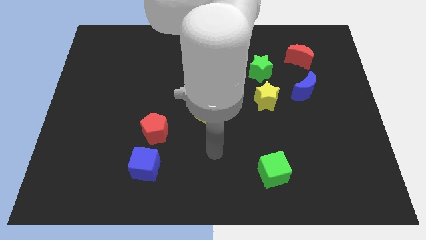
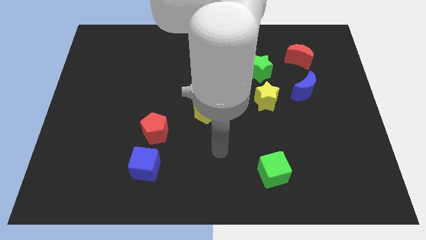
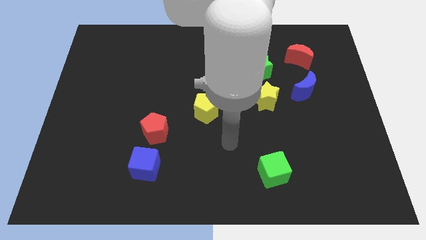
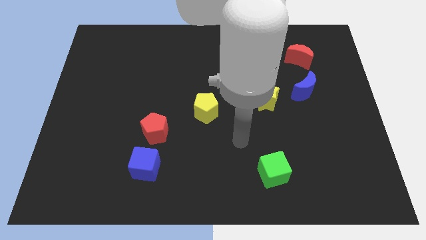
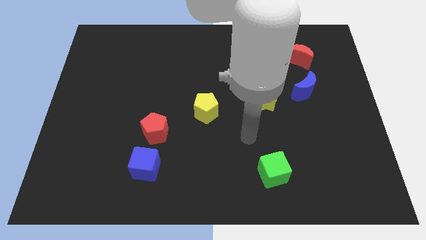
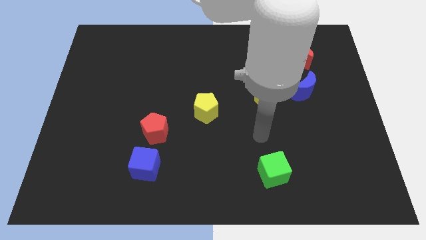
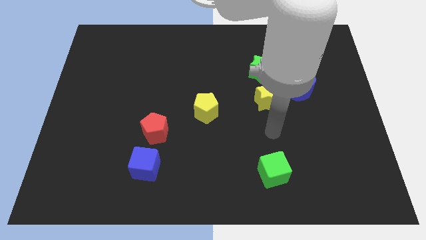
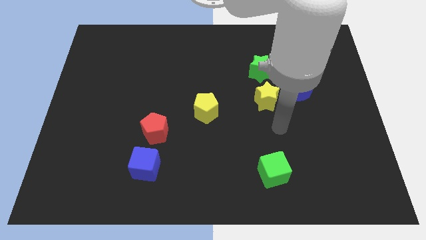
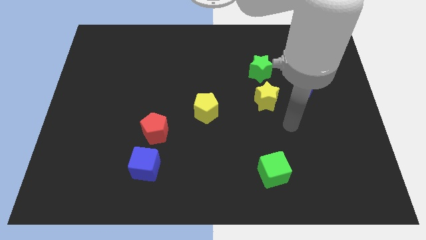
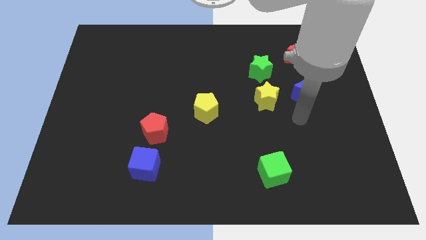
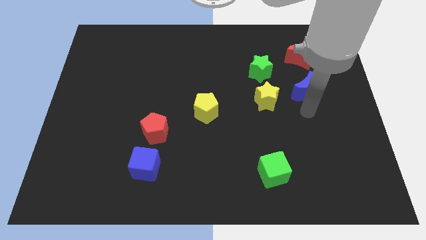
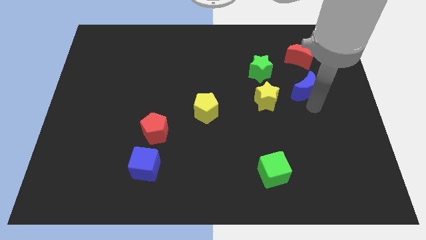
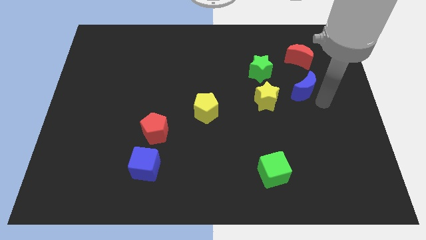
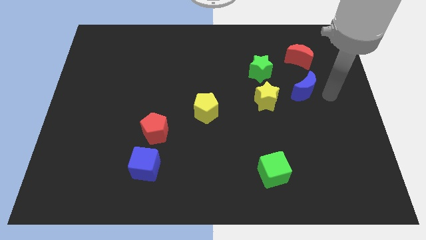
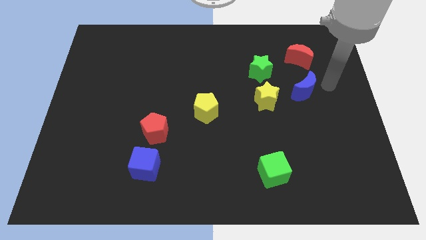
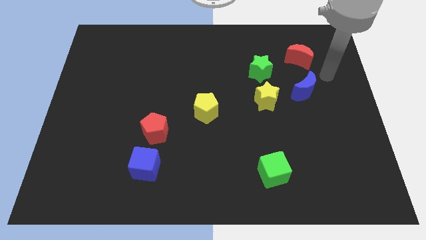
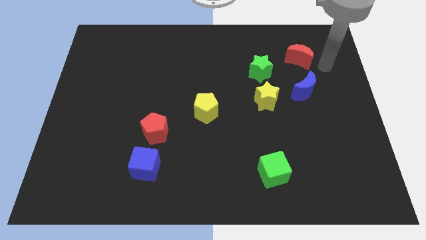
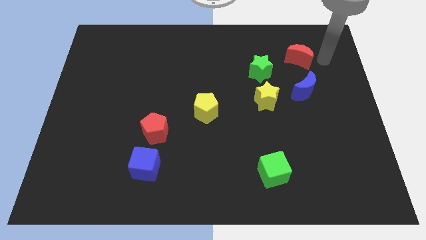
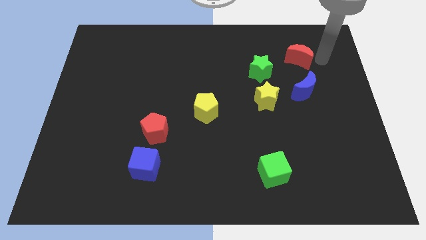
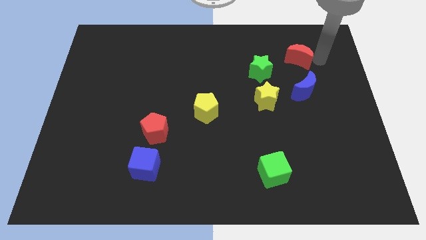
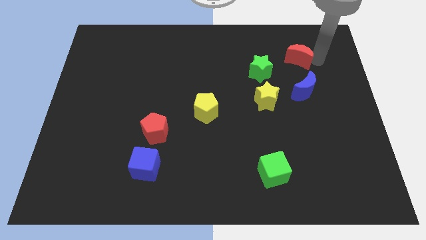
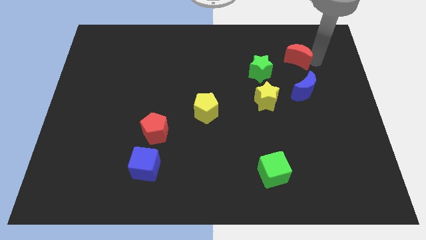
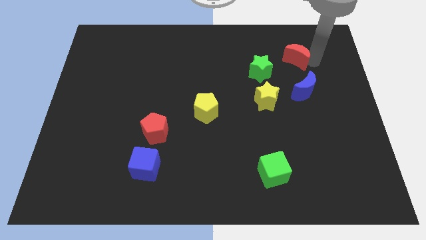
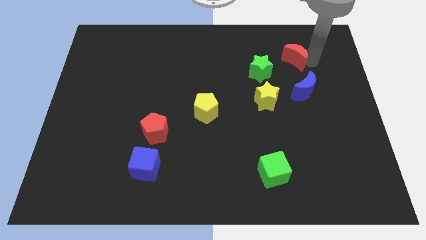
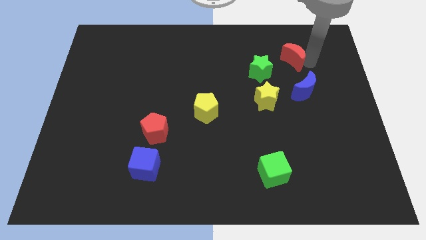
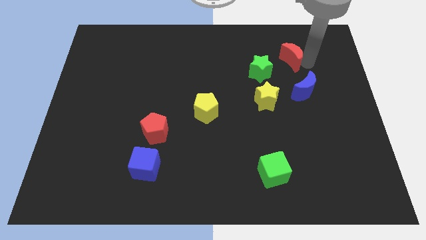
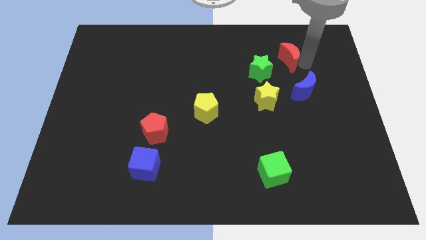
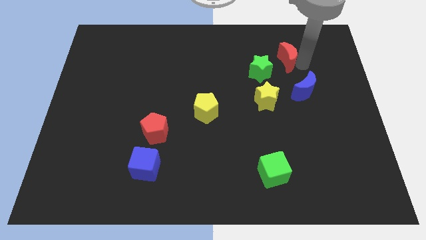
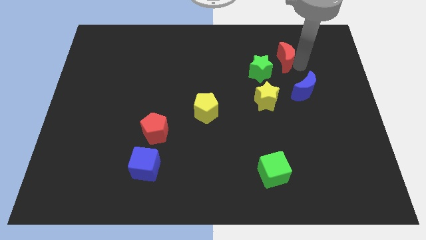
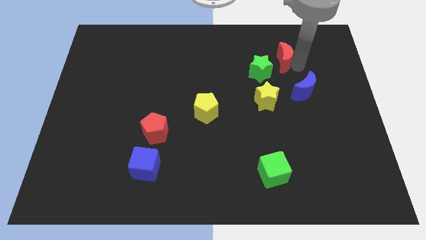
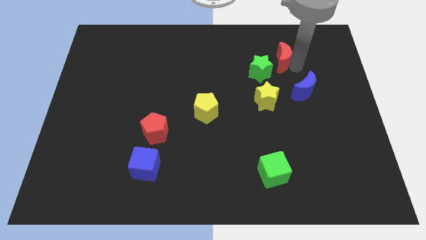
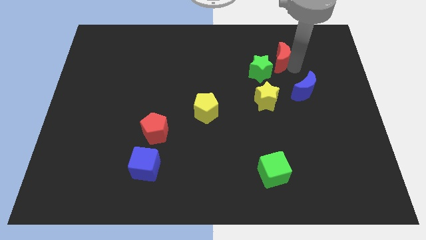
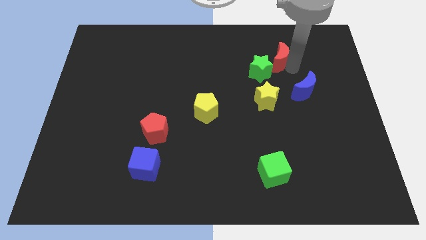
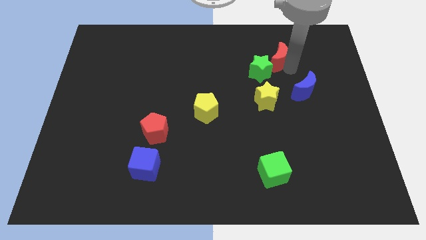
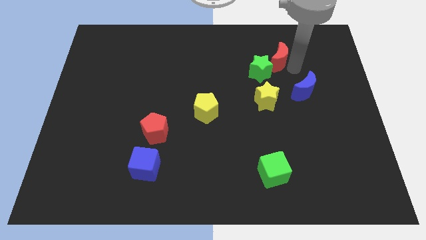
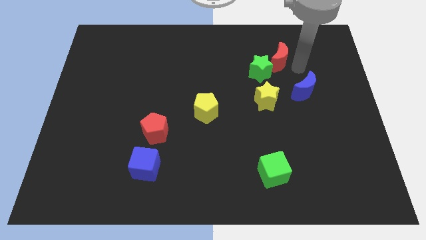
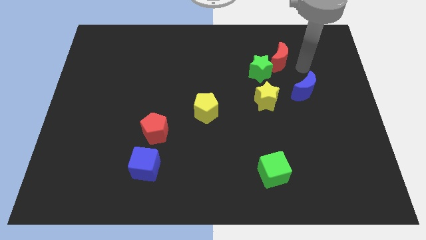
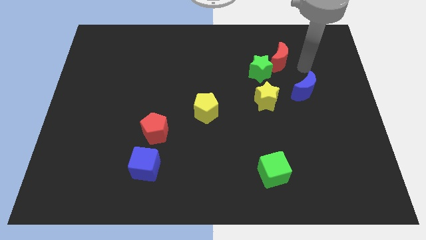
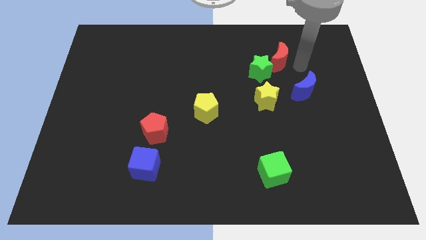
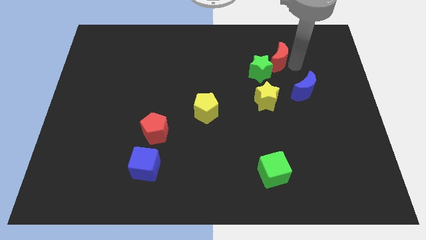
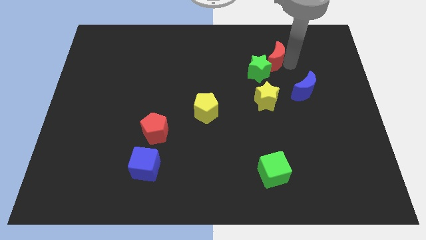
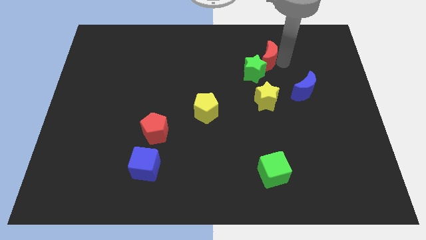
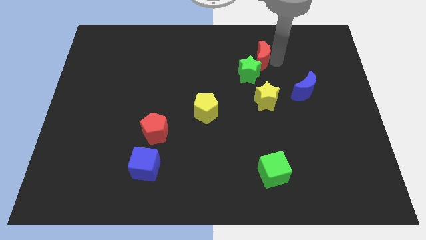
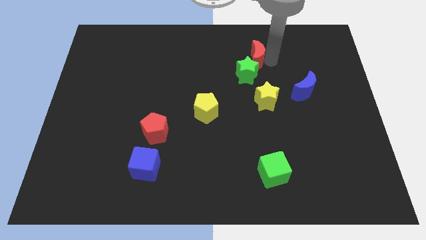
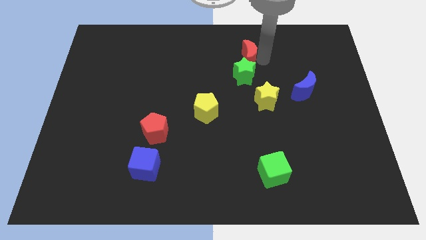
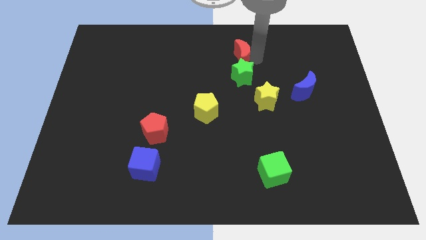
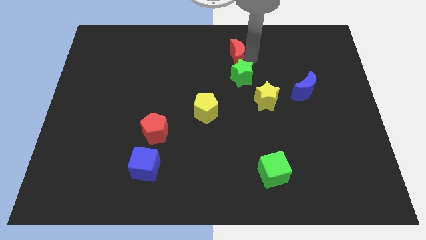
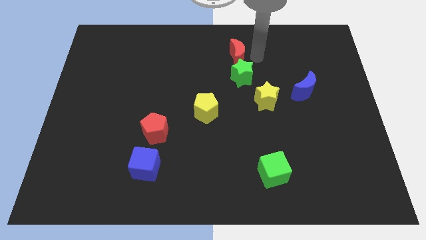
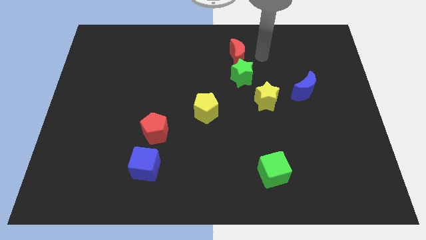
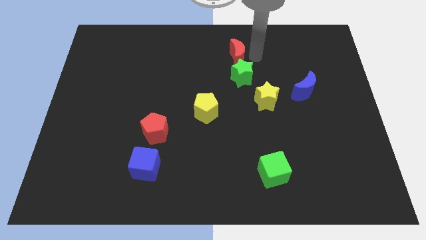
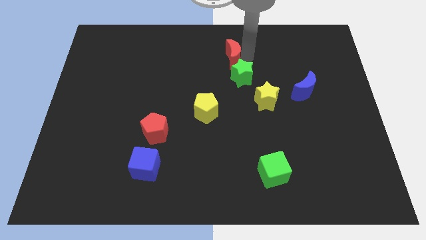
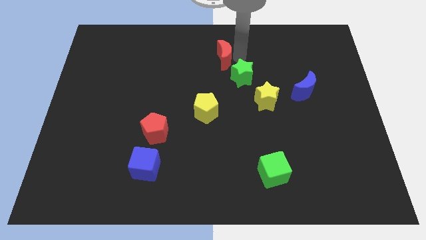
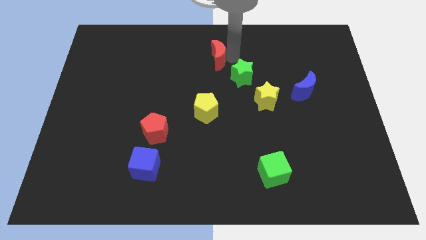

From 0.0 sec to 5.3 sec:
push the red moon left

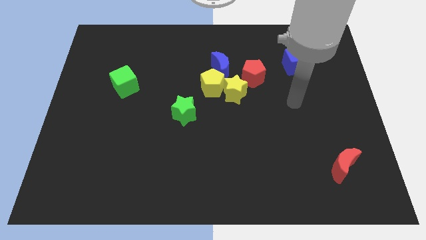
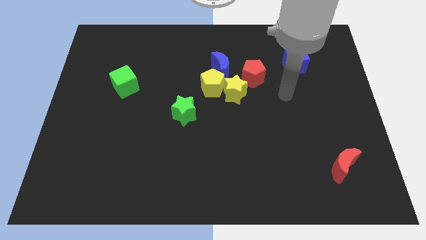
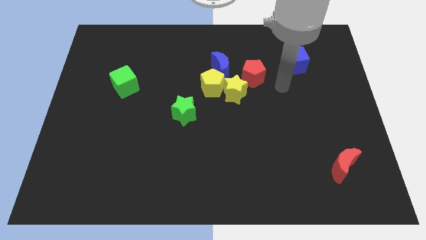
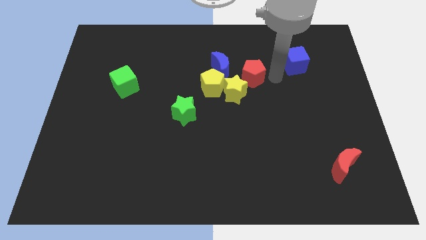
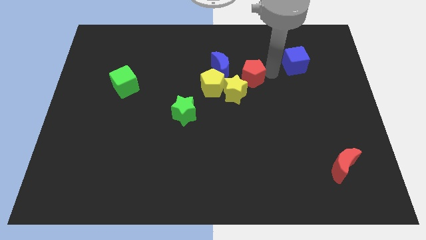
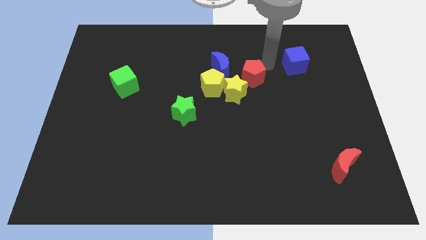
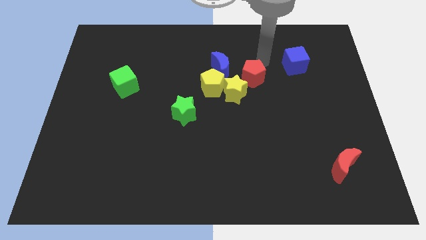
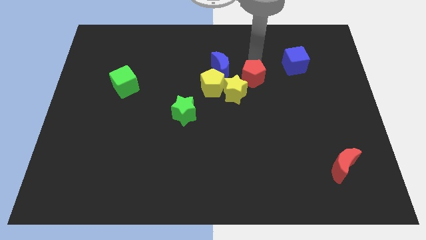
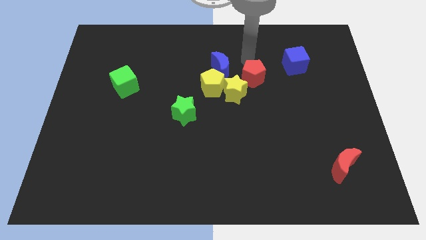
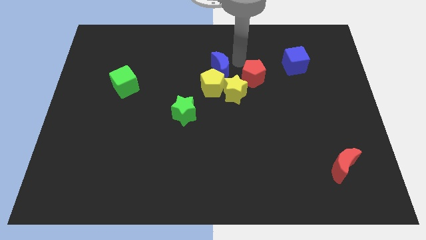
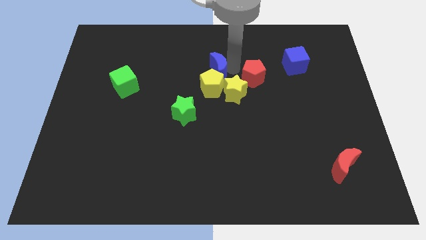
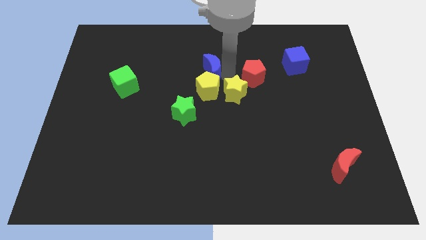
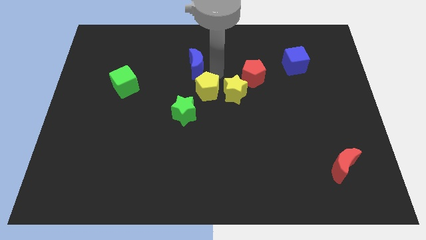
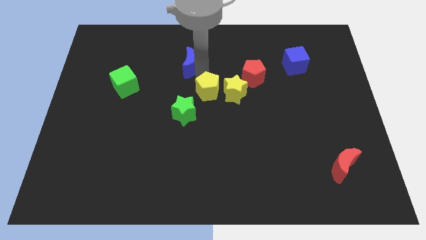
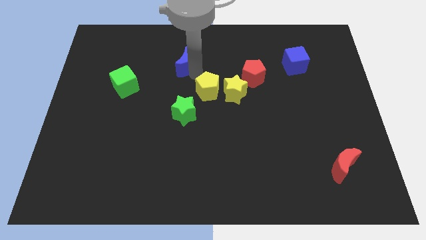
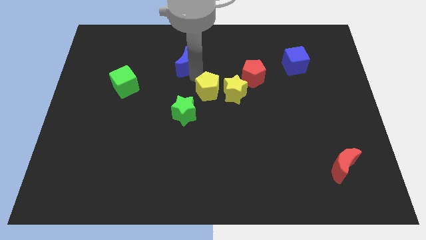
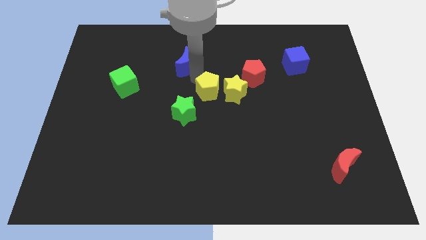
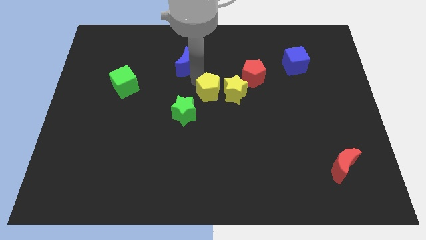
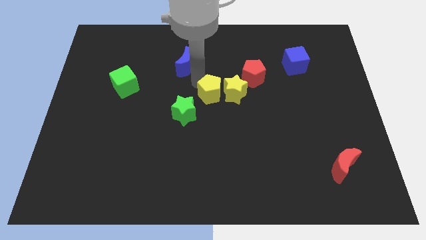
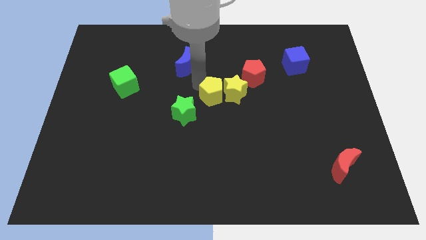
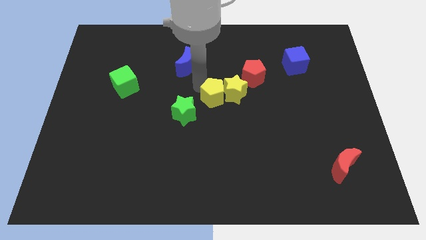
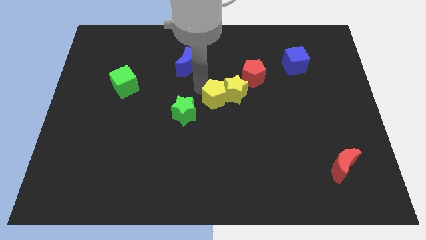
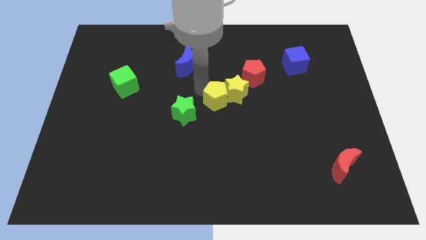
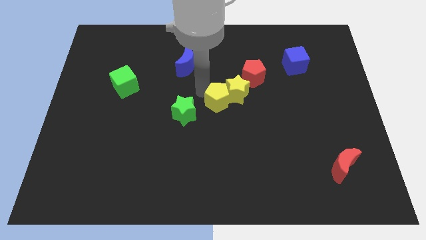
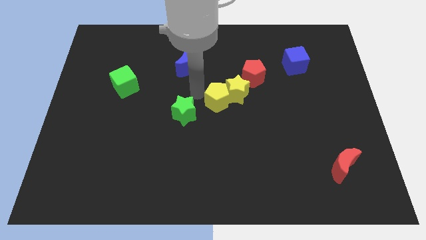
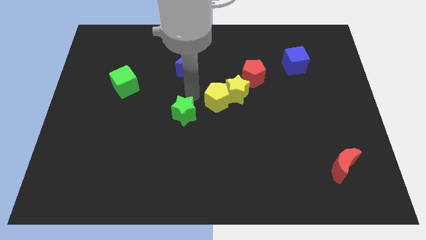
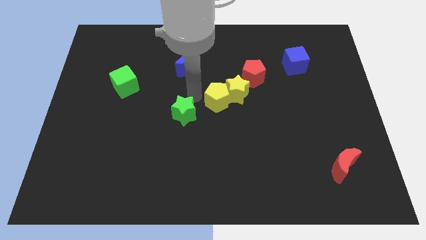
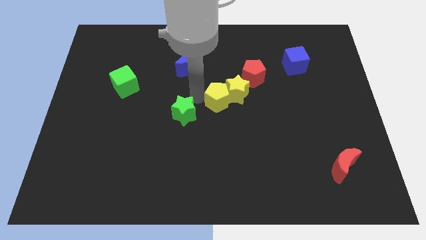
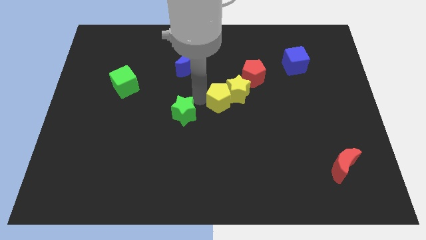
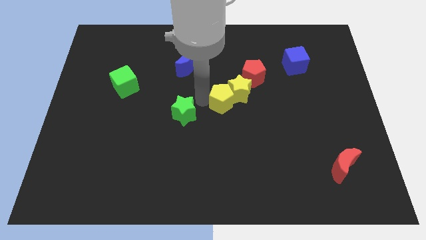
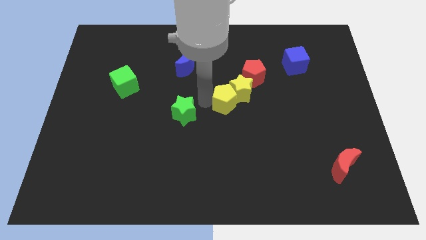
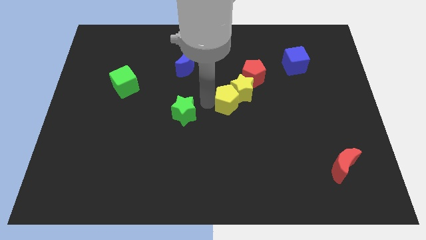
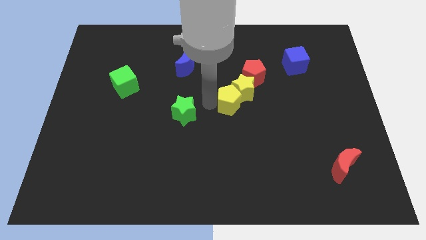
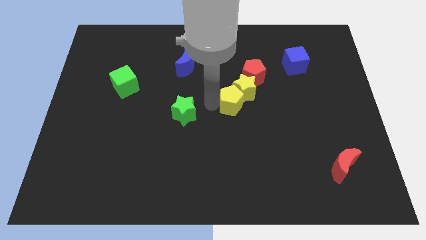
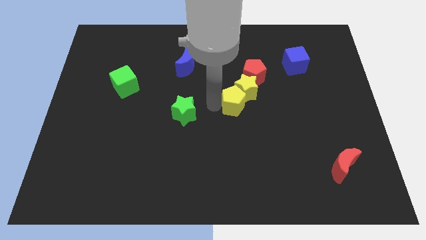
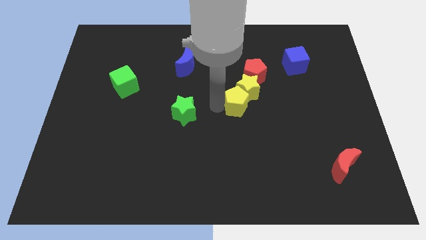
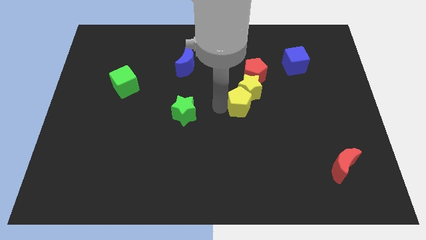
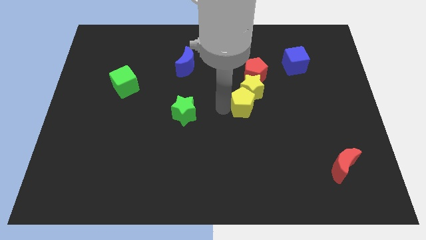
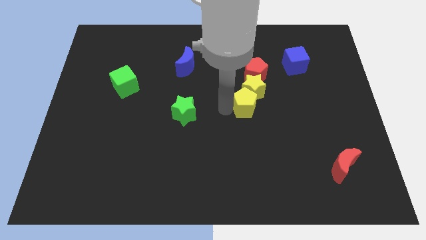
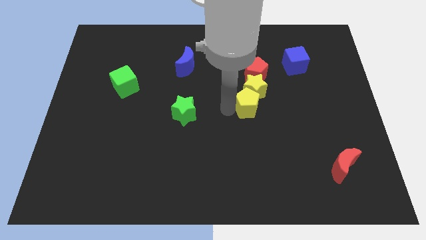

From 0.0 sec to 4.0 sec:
move the yellow pentagon right a little
